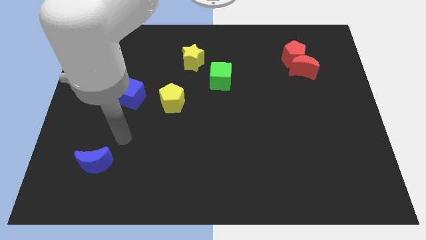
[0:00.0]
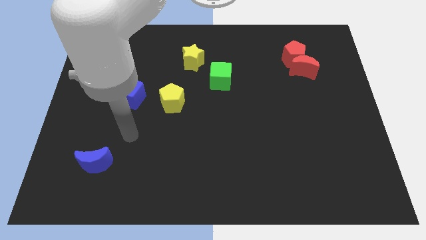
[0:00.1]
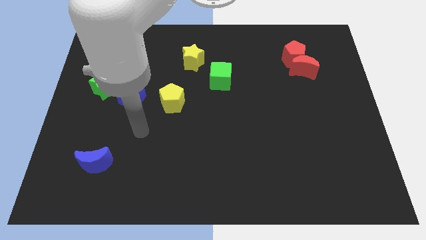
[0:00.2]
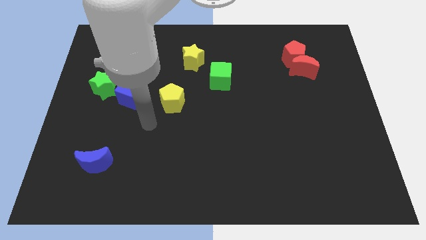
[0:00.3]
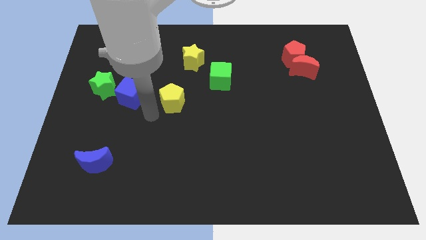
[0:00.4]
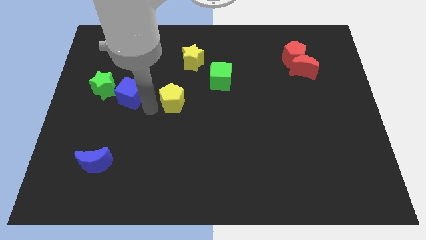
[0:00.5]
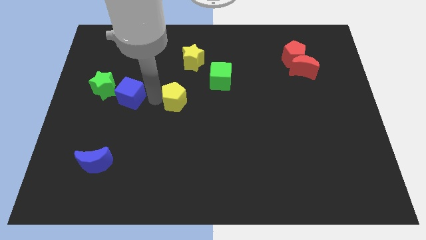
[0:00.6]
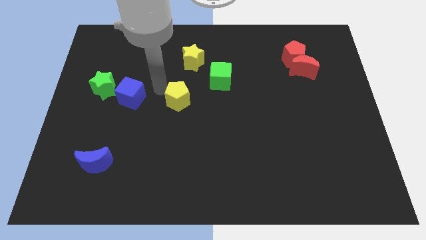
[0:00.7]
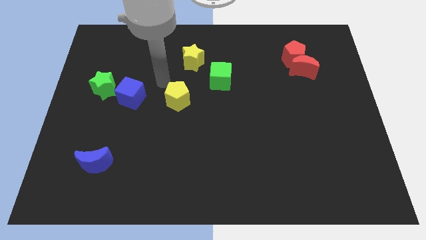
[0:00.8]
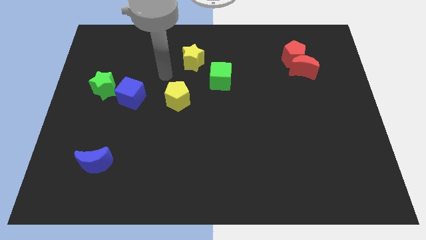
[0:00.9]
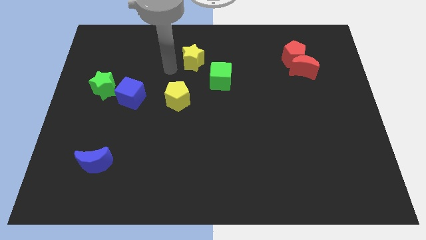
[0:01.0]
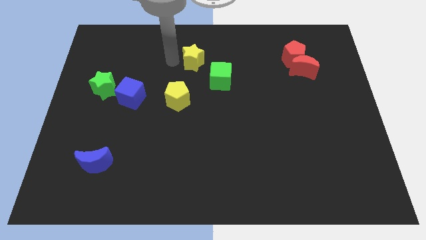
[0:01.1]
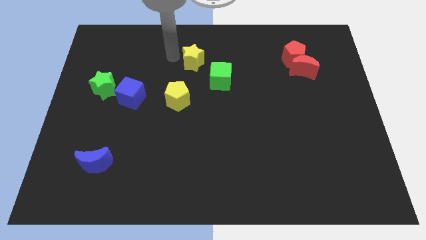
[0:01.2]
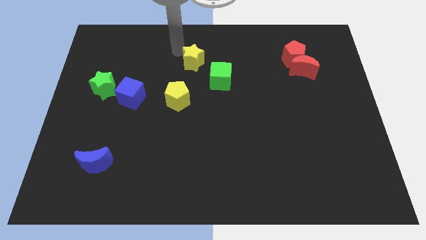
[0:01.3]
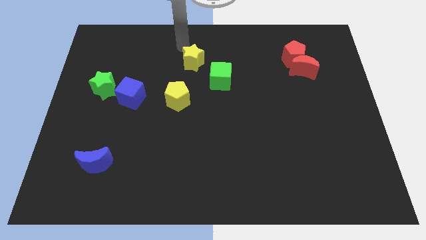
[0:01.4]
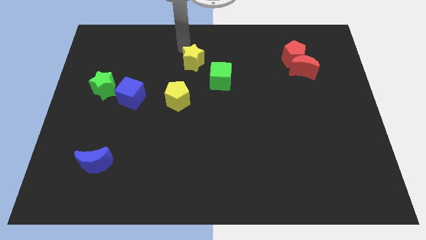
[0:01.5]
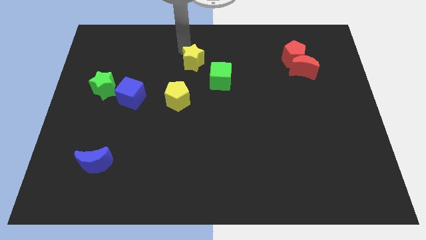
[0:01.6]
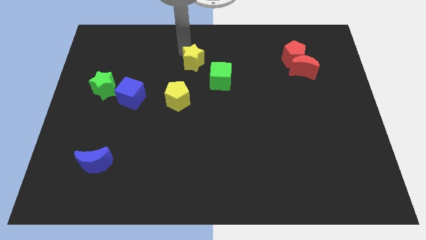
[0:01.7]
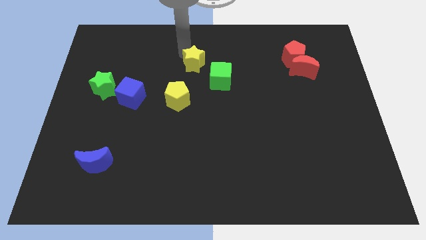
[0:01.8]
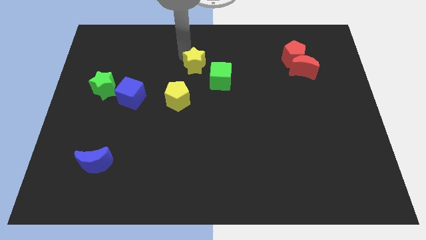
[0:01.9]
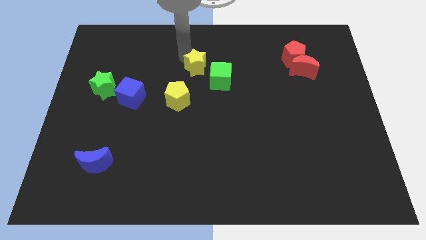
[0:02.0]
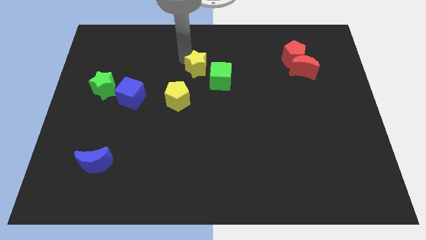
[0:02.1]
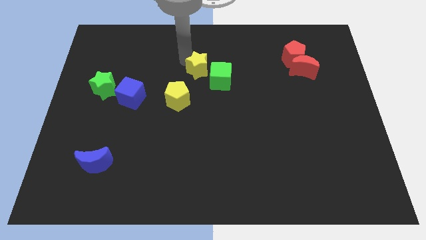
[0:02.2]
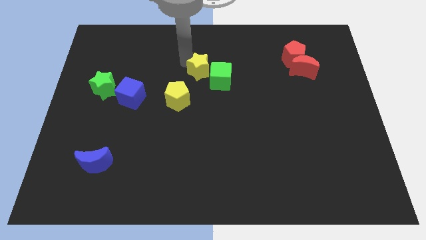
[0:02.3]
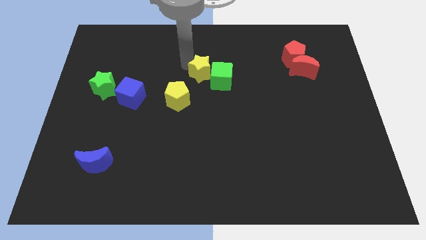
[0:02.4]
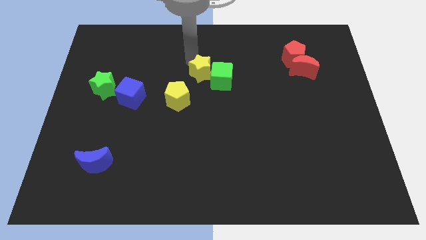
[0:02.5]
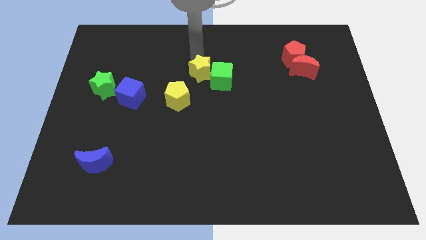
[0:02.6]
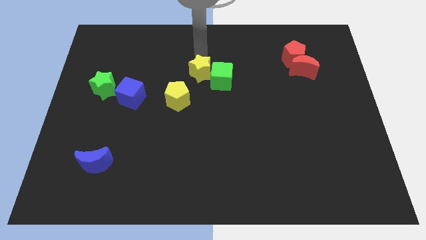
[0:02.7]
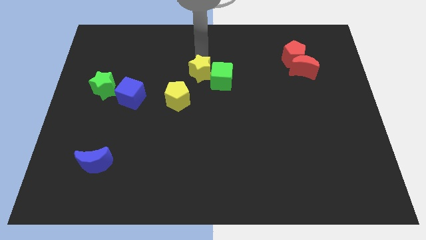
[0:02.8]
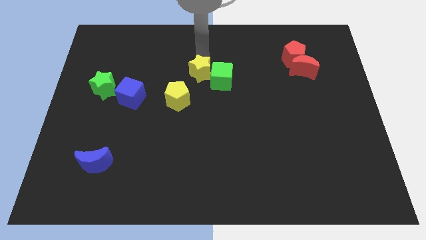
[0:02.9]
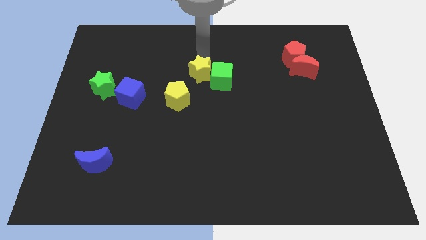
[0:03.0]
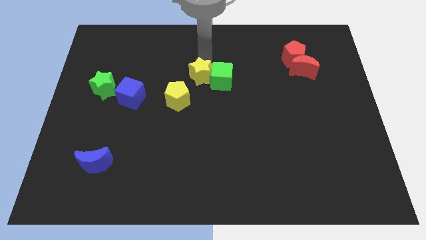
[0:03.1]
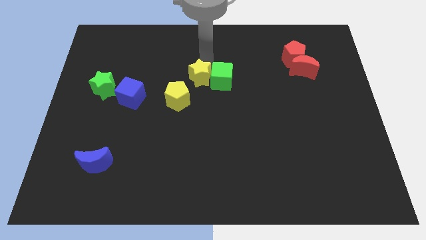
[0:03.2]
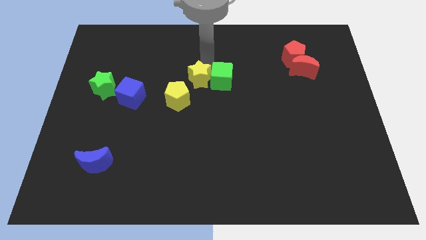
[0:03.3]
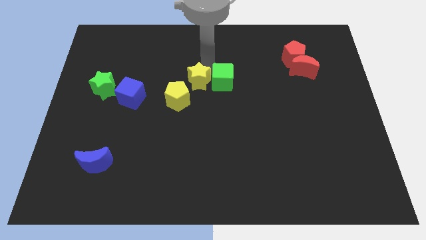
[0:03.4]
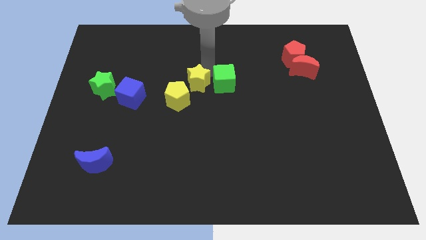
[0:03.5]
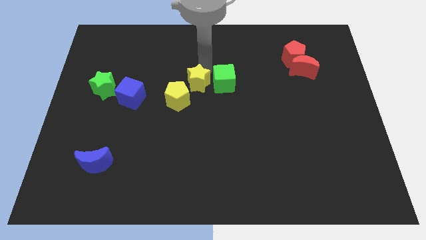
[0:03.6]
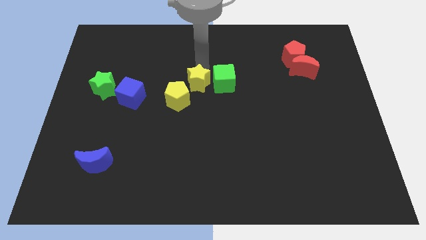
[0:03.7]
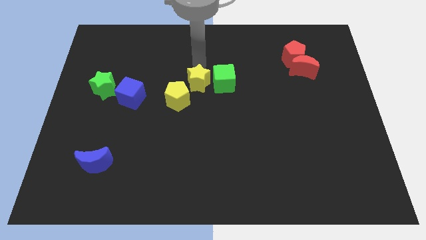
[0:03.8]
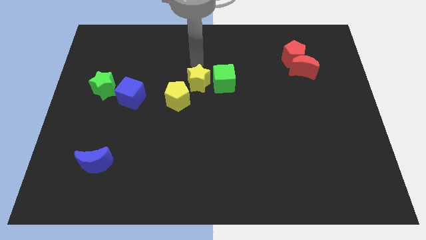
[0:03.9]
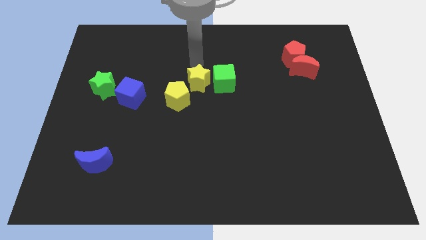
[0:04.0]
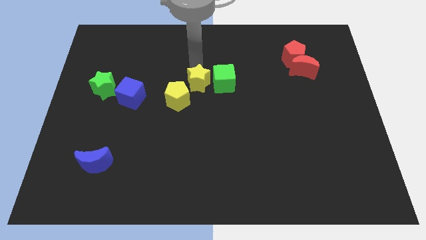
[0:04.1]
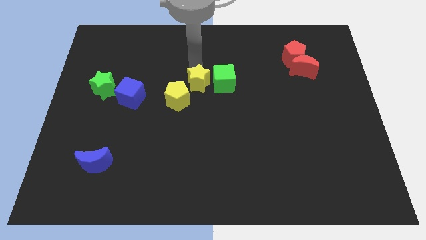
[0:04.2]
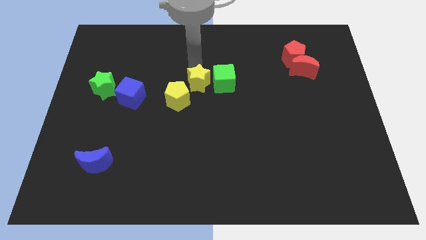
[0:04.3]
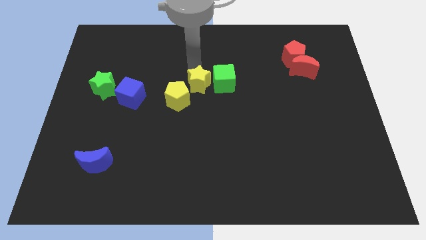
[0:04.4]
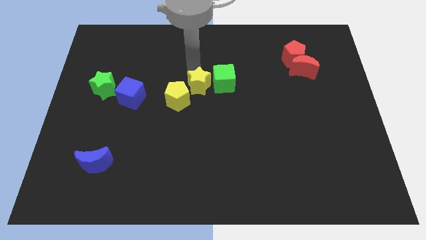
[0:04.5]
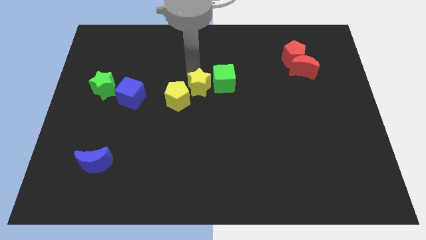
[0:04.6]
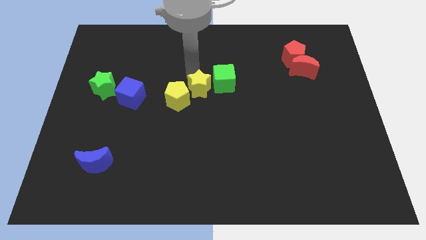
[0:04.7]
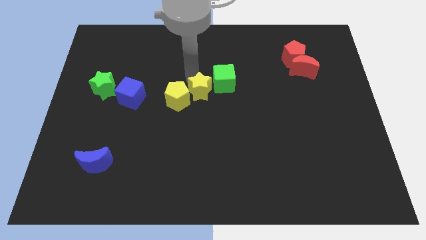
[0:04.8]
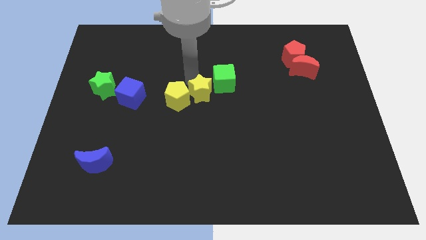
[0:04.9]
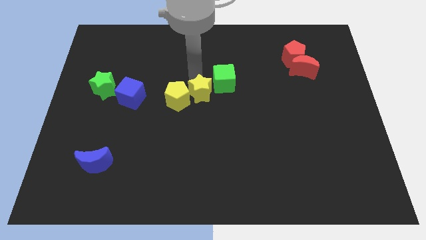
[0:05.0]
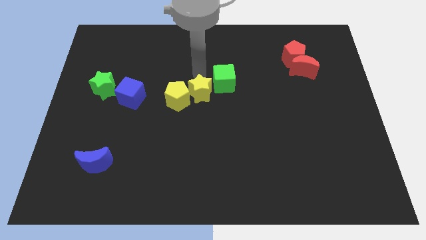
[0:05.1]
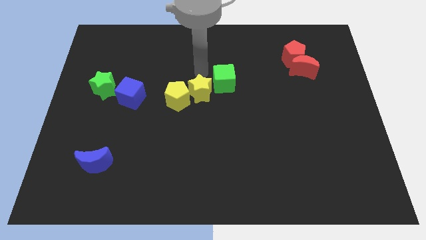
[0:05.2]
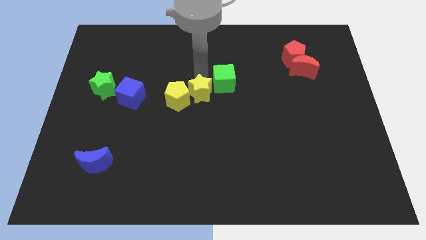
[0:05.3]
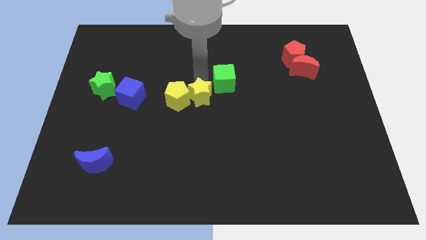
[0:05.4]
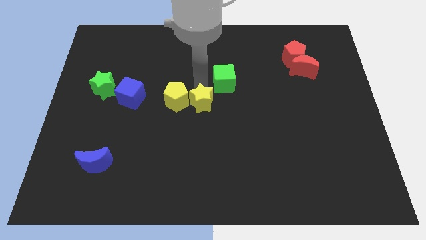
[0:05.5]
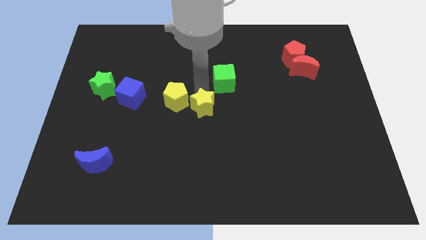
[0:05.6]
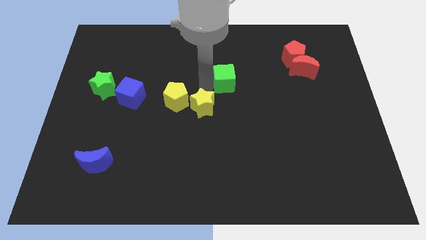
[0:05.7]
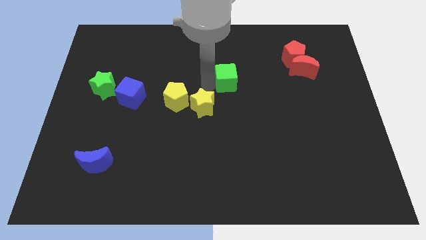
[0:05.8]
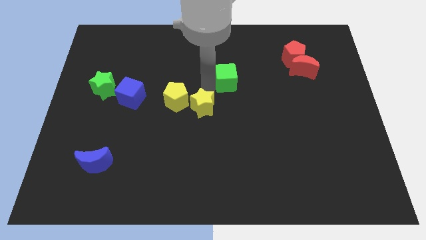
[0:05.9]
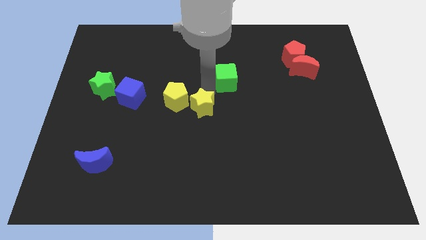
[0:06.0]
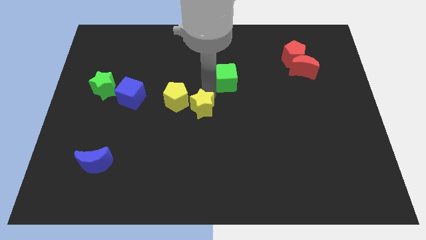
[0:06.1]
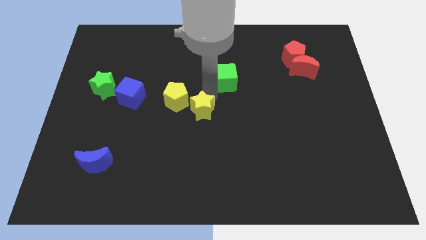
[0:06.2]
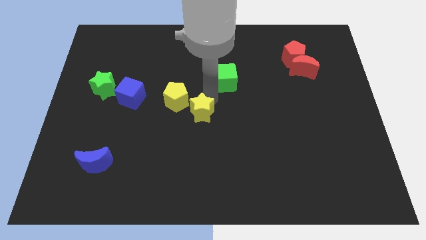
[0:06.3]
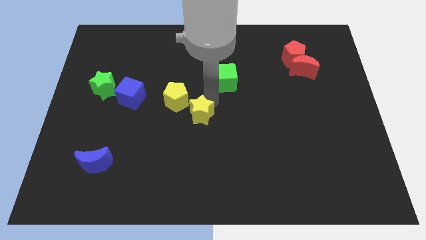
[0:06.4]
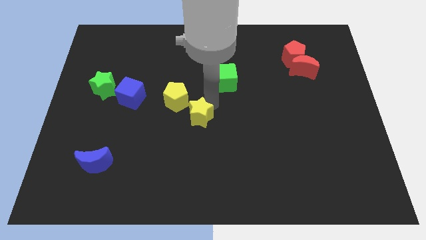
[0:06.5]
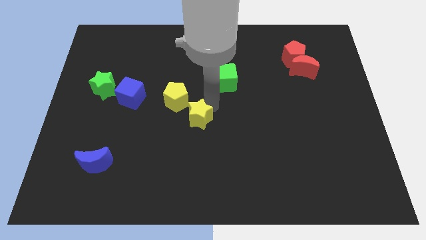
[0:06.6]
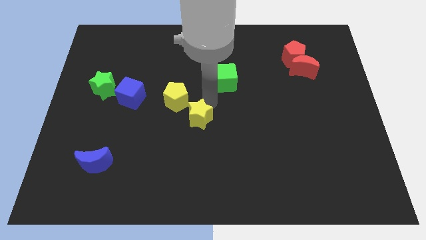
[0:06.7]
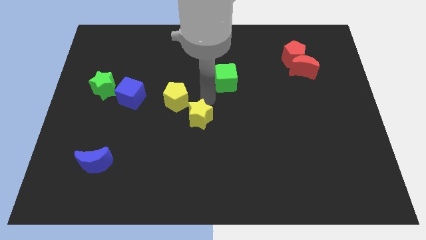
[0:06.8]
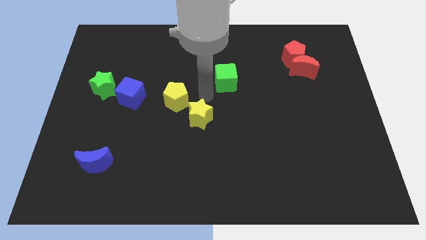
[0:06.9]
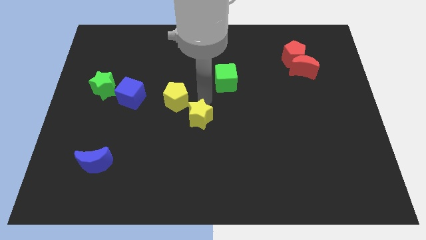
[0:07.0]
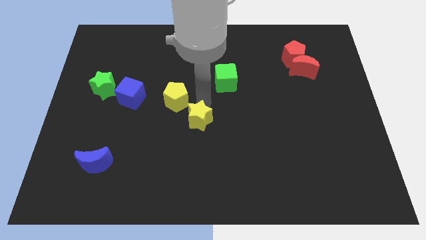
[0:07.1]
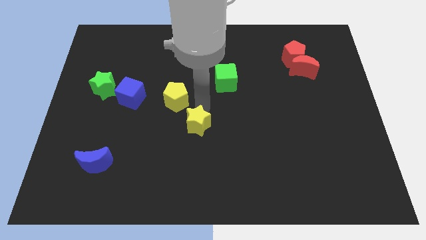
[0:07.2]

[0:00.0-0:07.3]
push the yellow star downwards

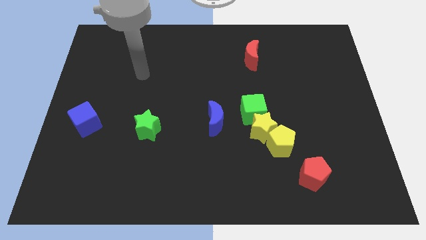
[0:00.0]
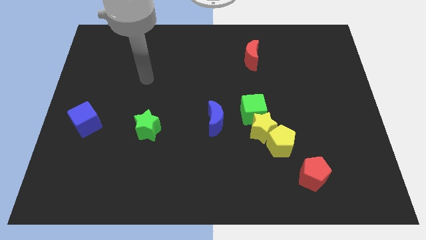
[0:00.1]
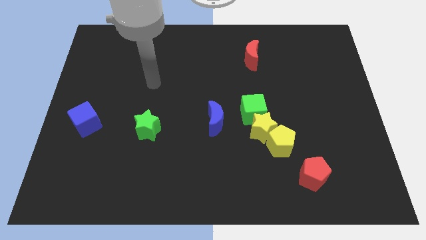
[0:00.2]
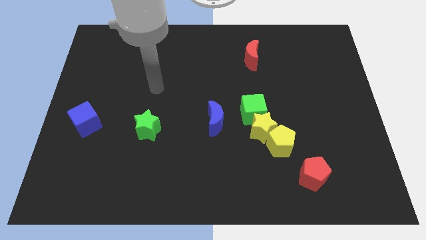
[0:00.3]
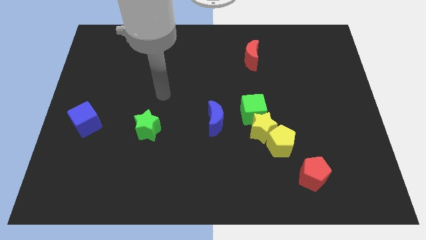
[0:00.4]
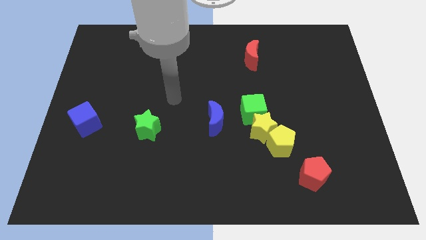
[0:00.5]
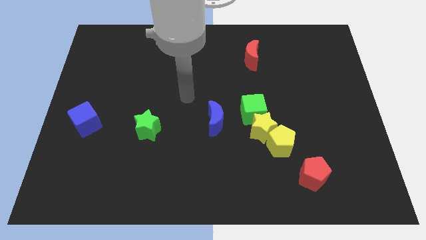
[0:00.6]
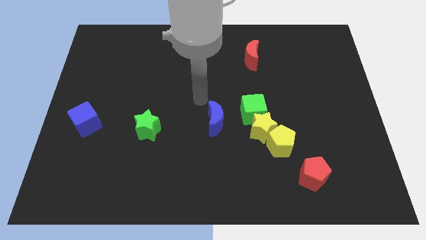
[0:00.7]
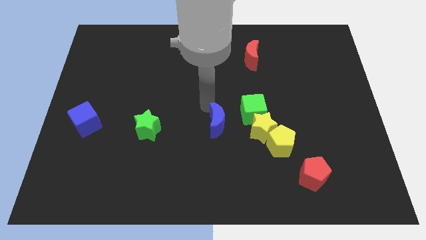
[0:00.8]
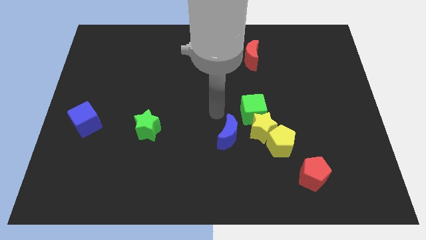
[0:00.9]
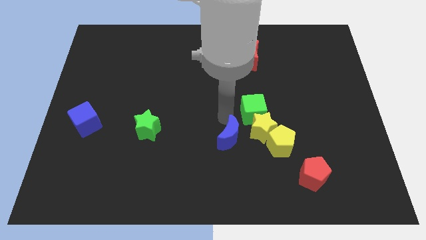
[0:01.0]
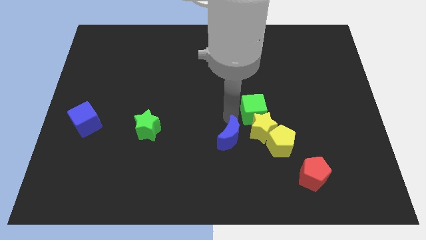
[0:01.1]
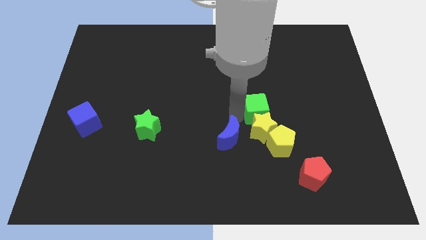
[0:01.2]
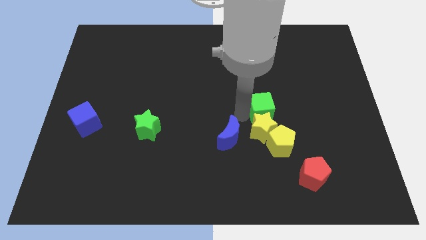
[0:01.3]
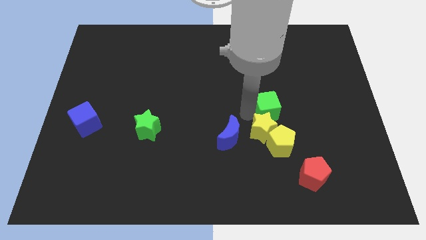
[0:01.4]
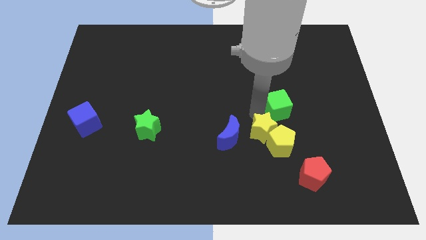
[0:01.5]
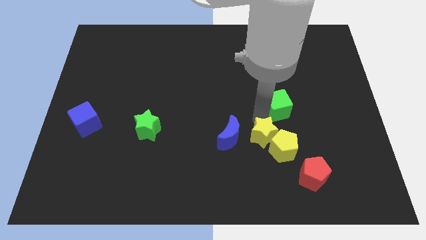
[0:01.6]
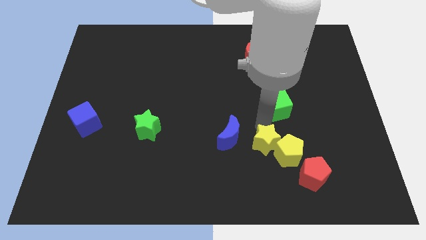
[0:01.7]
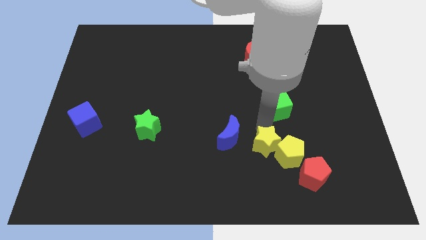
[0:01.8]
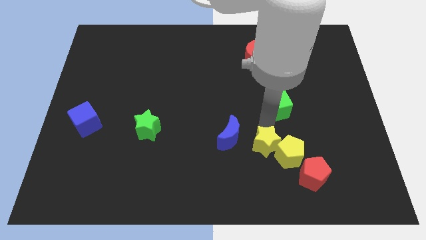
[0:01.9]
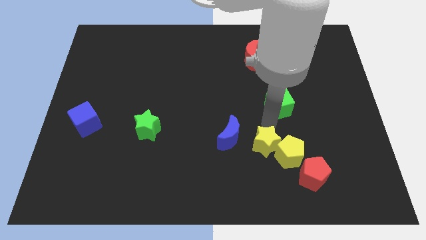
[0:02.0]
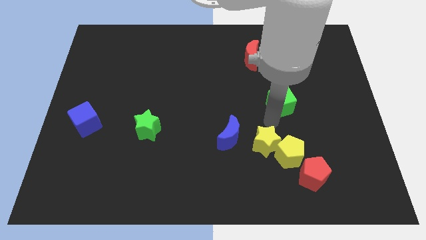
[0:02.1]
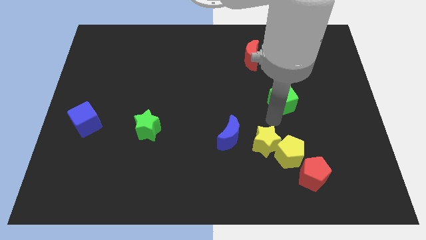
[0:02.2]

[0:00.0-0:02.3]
push the green cube up and to the right diagonally a little
